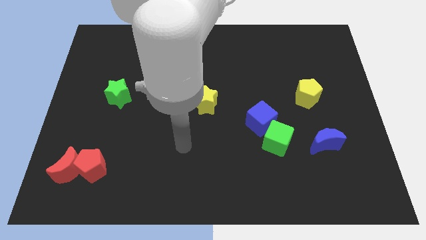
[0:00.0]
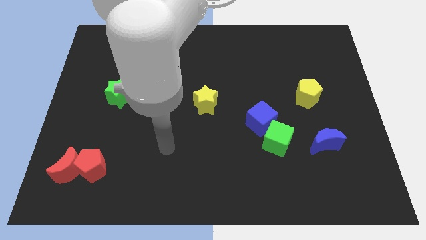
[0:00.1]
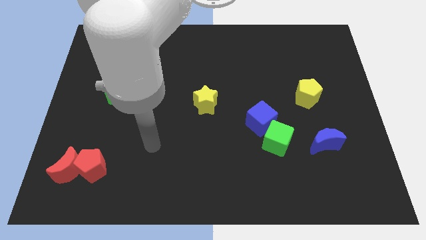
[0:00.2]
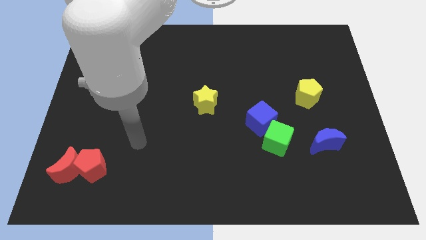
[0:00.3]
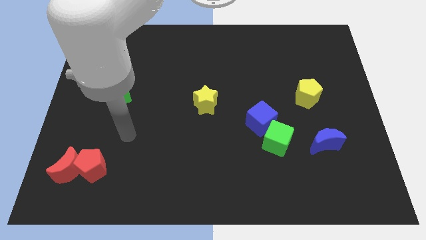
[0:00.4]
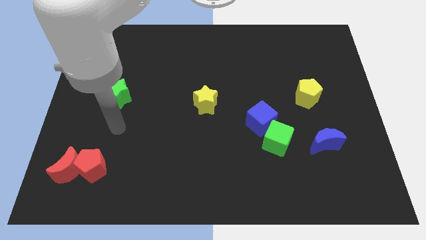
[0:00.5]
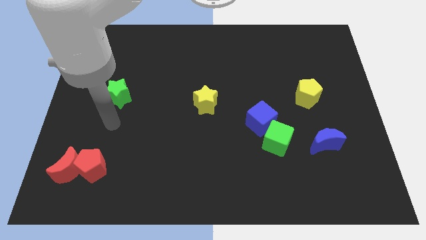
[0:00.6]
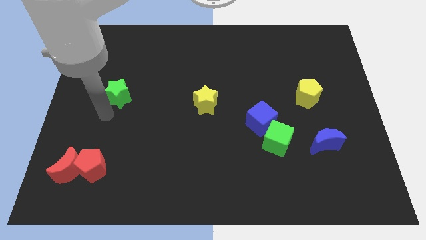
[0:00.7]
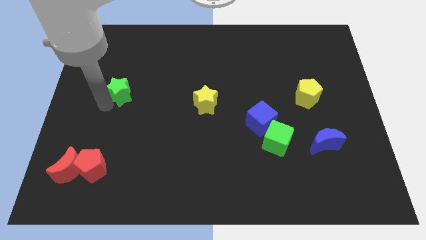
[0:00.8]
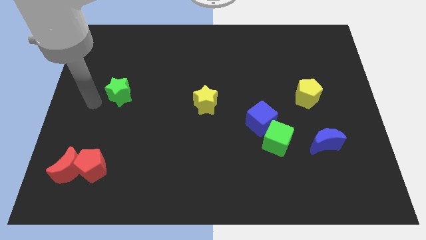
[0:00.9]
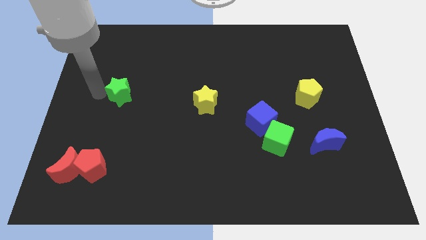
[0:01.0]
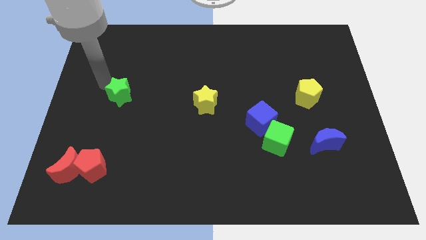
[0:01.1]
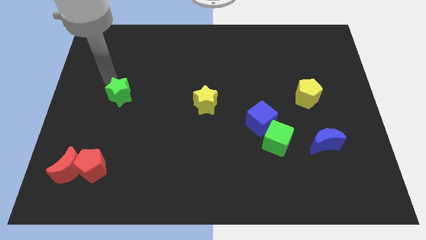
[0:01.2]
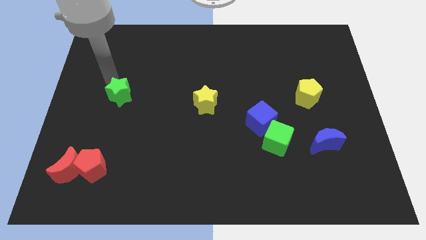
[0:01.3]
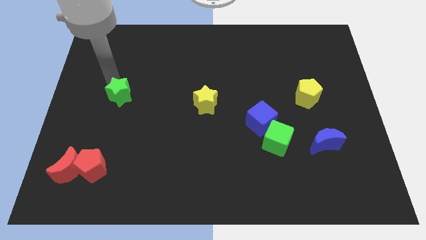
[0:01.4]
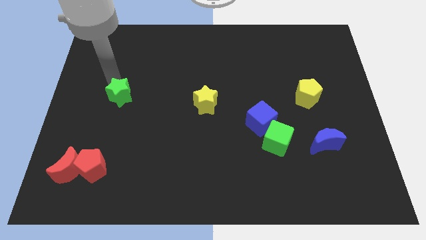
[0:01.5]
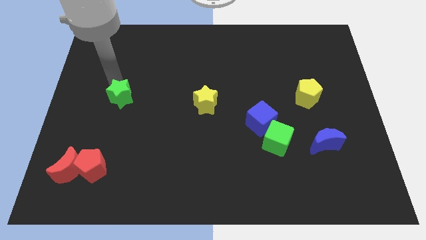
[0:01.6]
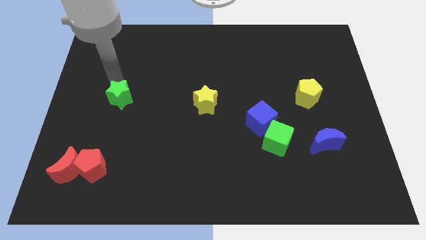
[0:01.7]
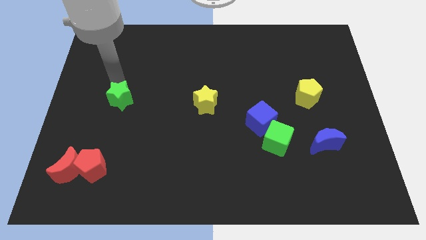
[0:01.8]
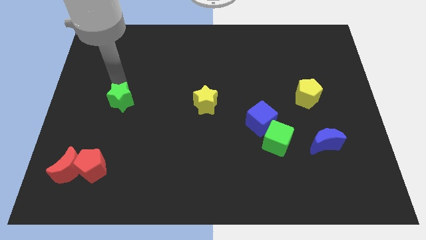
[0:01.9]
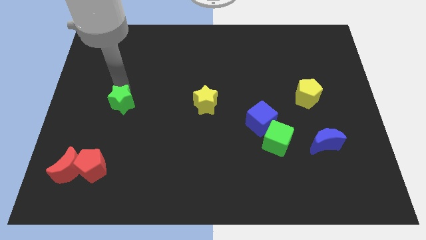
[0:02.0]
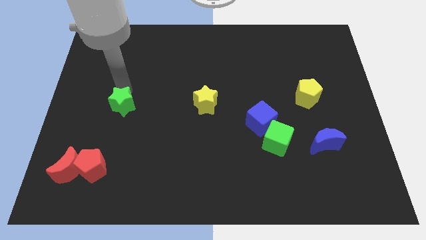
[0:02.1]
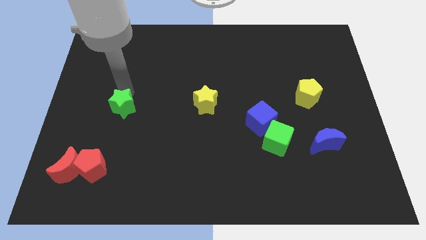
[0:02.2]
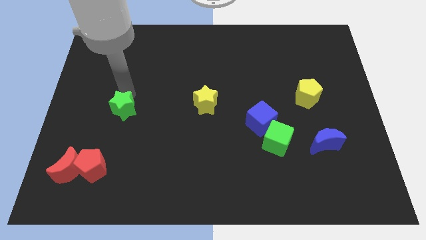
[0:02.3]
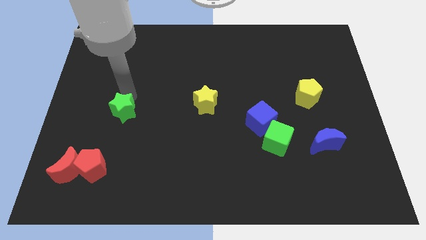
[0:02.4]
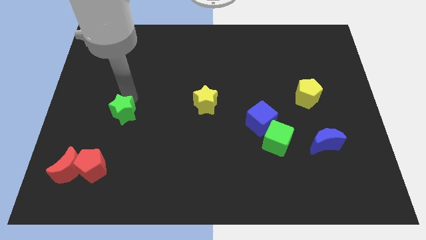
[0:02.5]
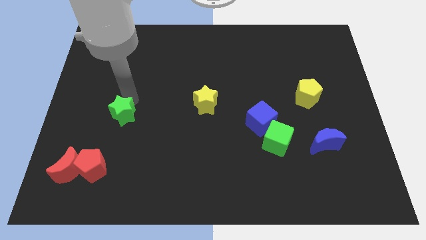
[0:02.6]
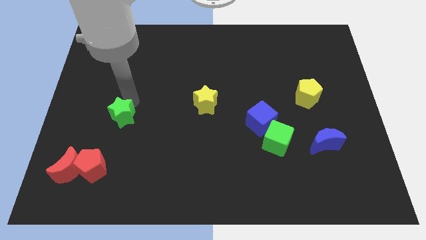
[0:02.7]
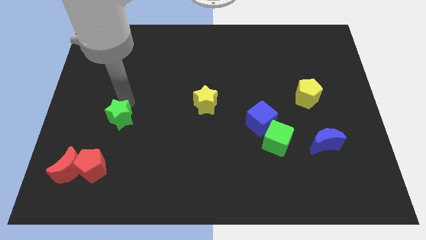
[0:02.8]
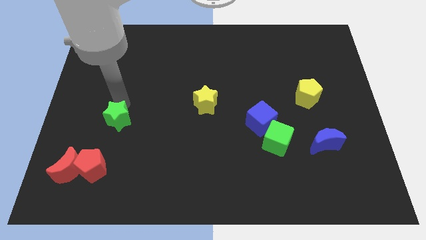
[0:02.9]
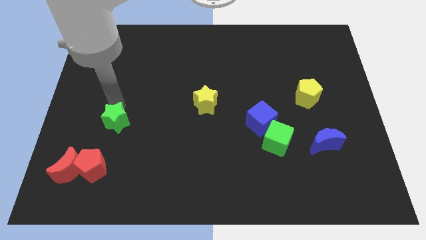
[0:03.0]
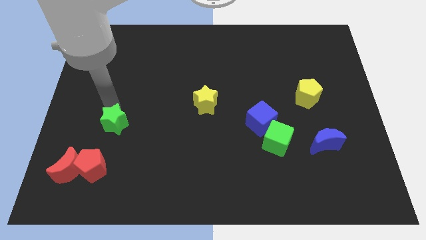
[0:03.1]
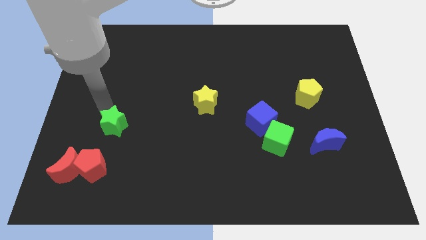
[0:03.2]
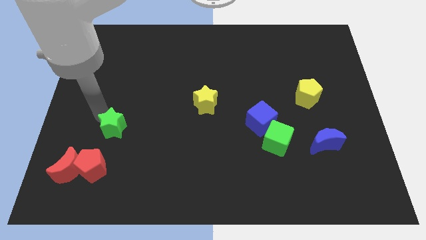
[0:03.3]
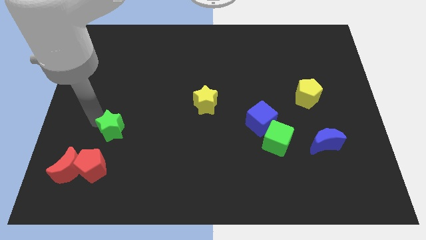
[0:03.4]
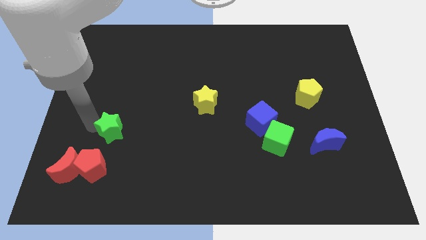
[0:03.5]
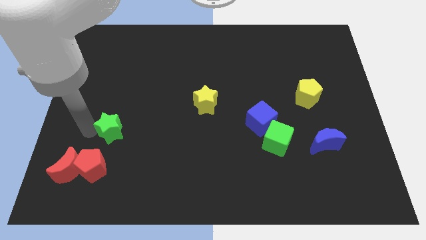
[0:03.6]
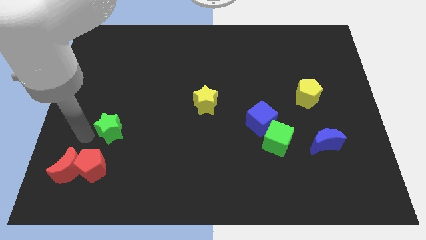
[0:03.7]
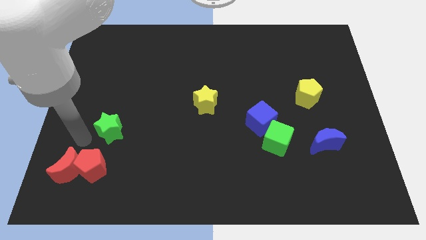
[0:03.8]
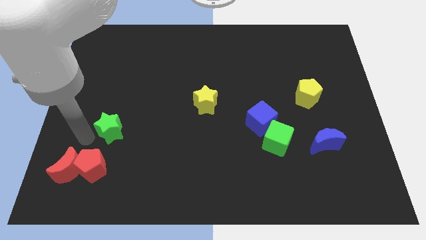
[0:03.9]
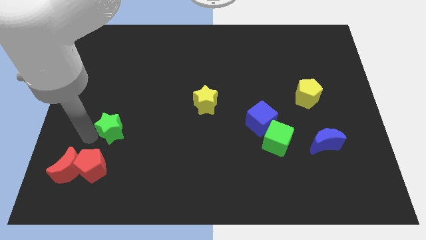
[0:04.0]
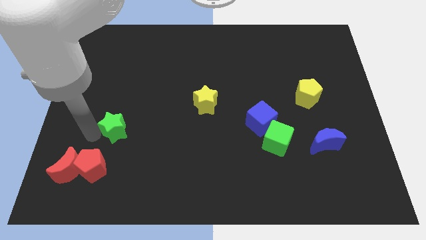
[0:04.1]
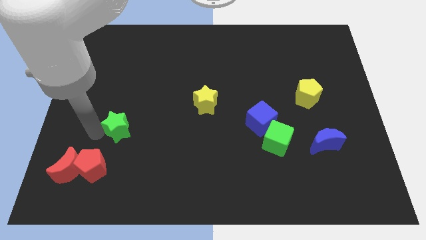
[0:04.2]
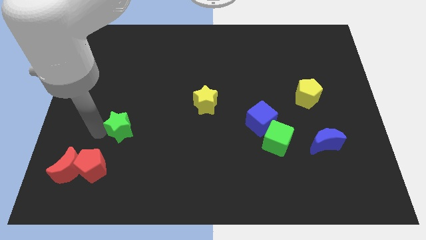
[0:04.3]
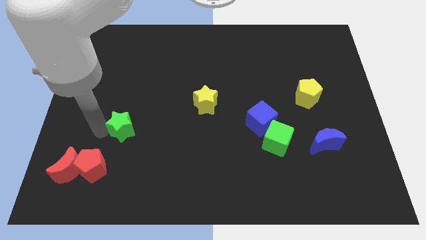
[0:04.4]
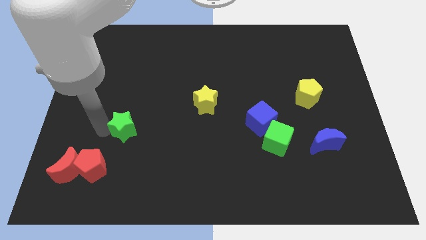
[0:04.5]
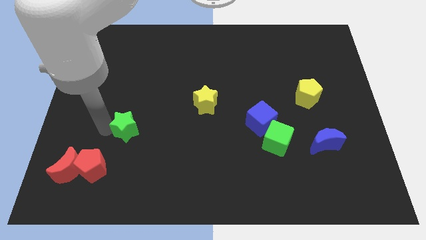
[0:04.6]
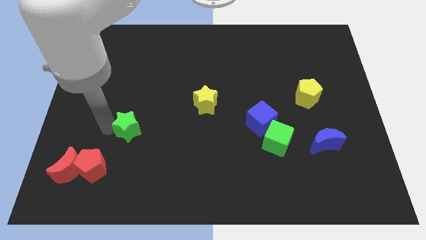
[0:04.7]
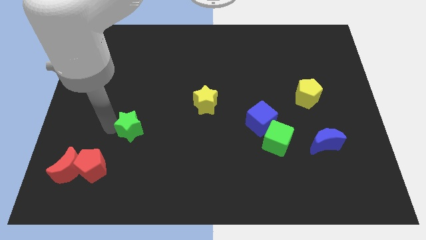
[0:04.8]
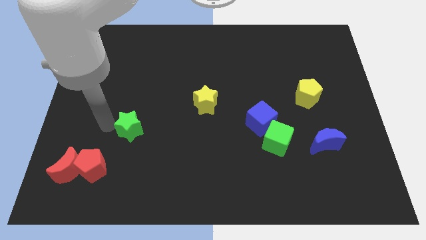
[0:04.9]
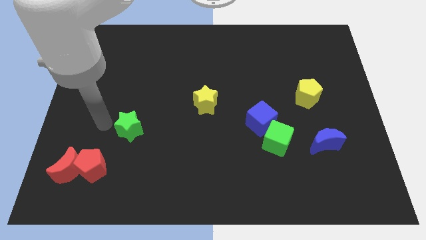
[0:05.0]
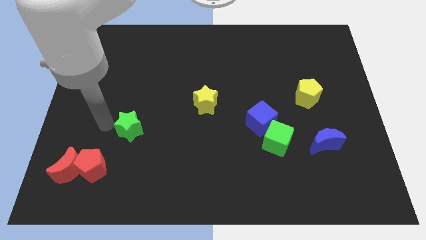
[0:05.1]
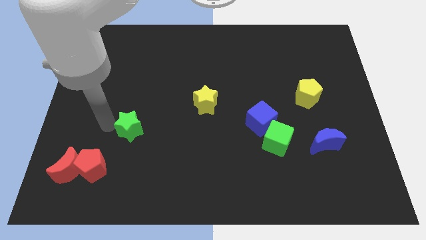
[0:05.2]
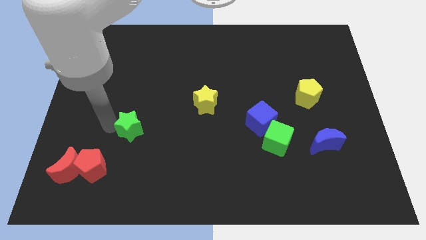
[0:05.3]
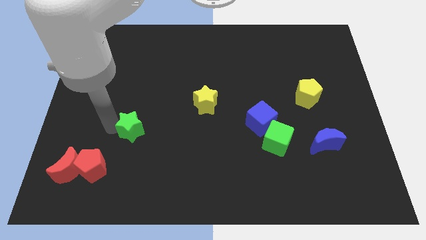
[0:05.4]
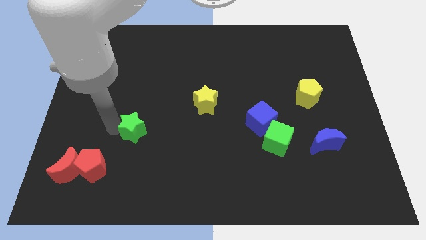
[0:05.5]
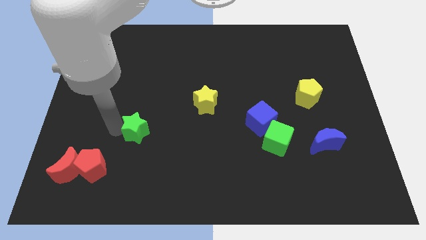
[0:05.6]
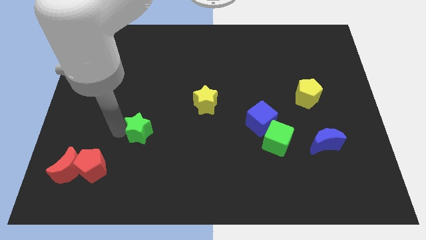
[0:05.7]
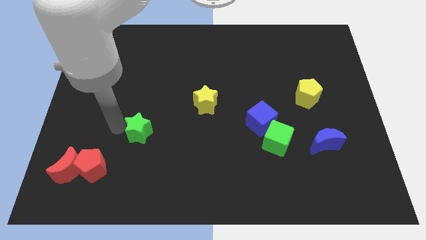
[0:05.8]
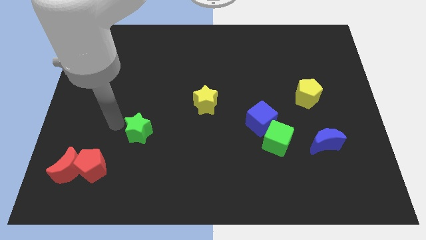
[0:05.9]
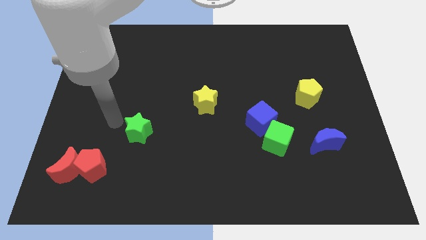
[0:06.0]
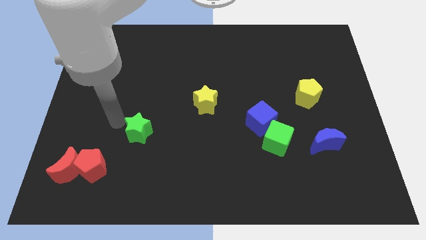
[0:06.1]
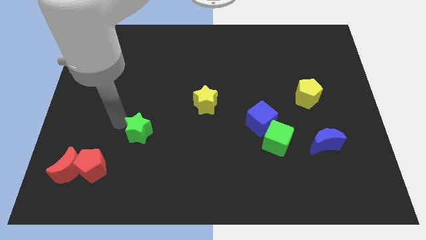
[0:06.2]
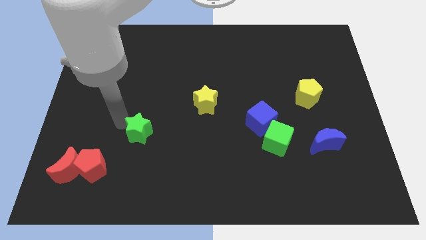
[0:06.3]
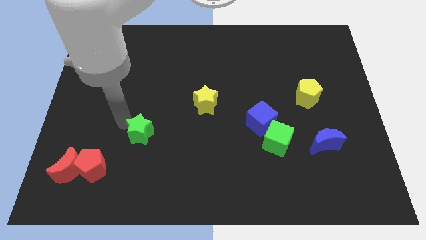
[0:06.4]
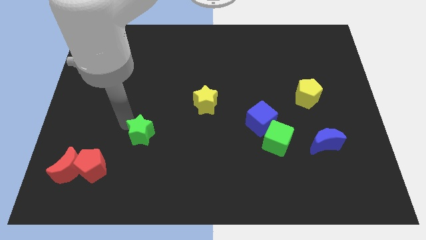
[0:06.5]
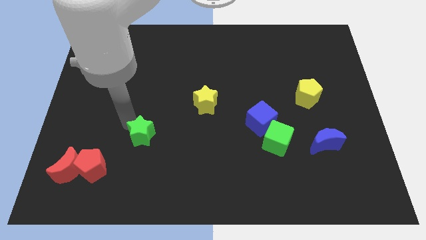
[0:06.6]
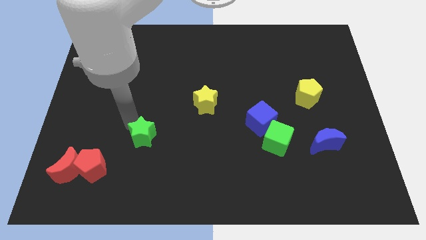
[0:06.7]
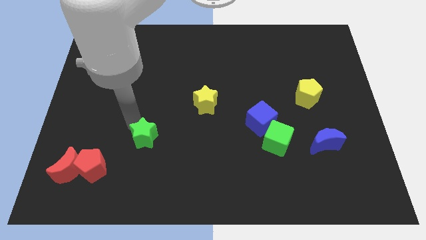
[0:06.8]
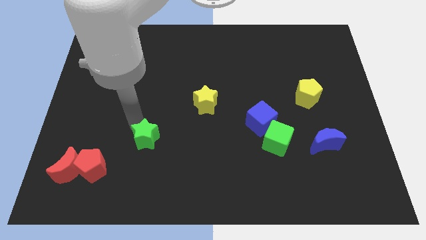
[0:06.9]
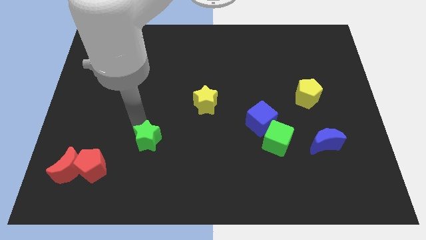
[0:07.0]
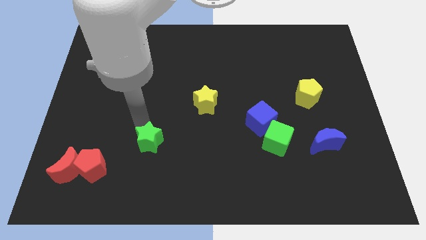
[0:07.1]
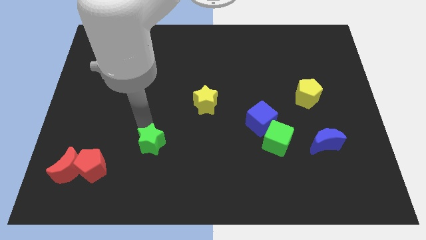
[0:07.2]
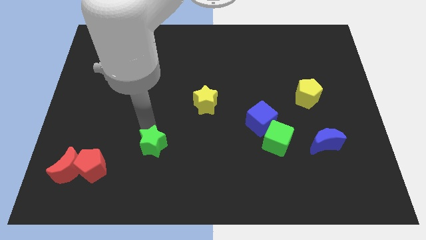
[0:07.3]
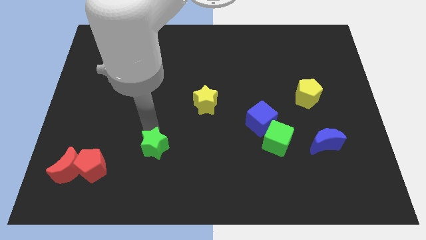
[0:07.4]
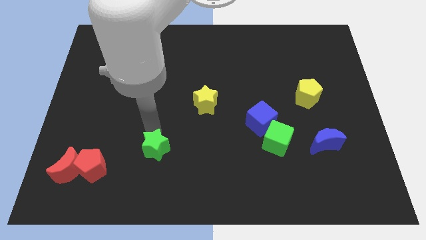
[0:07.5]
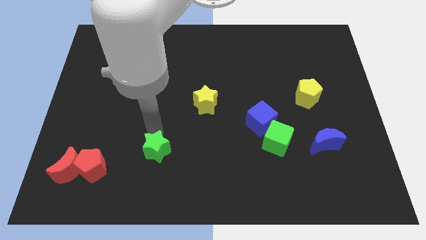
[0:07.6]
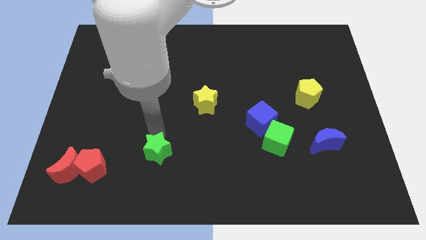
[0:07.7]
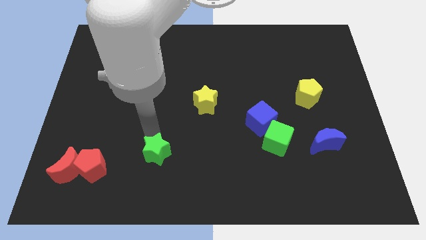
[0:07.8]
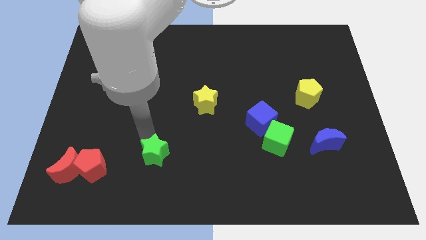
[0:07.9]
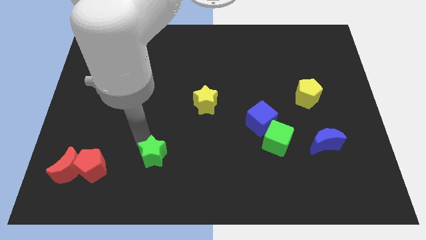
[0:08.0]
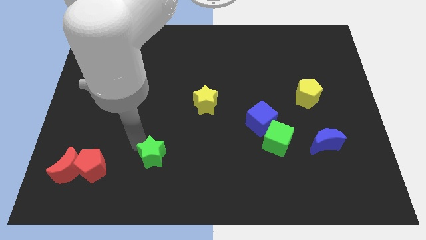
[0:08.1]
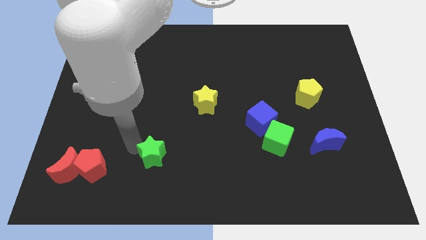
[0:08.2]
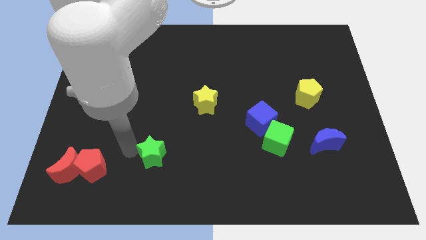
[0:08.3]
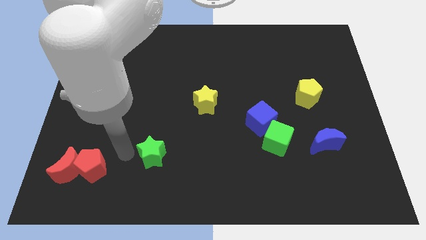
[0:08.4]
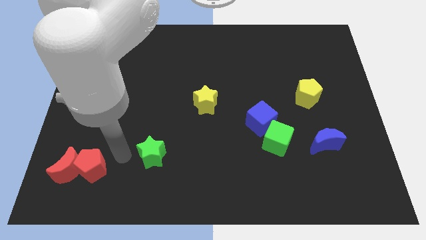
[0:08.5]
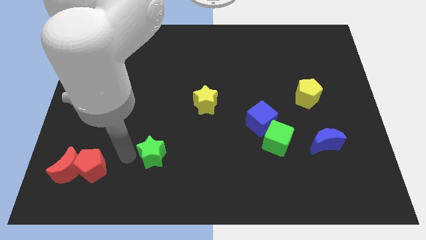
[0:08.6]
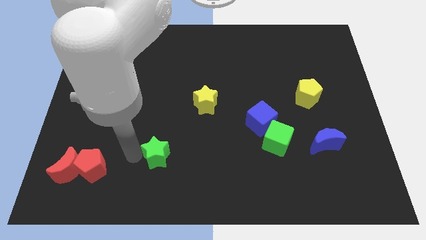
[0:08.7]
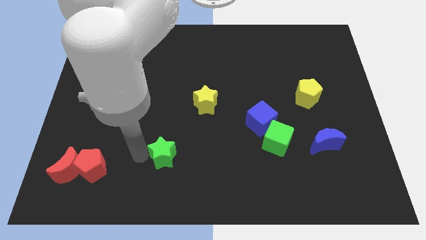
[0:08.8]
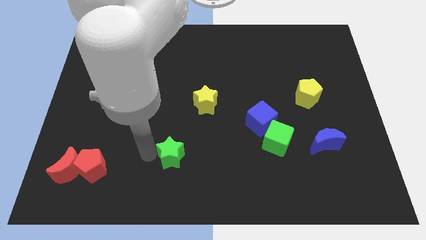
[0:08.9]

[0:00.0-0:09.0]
push the green star diagonally down and to the right
